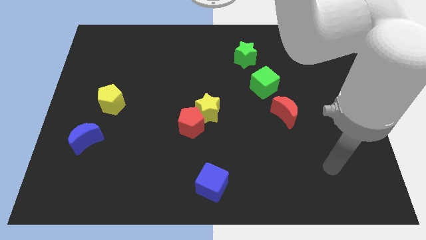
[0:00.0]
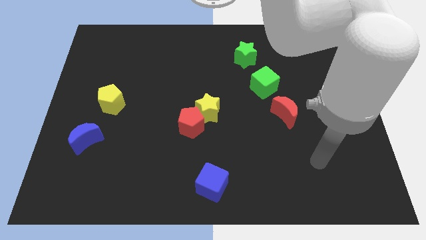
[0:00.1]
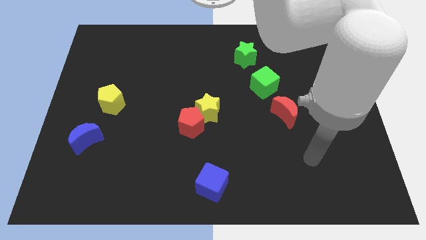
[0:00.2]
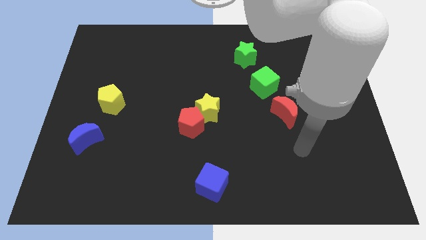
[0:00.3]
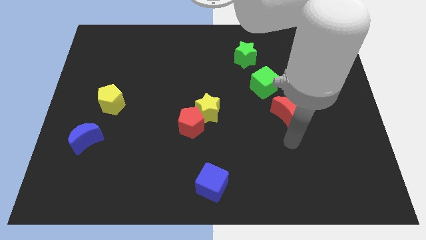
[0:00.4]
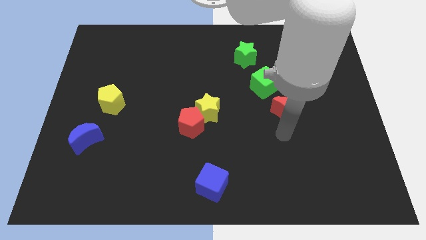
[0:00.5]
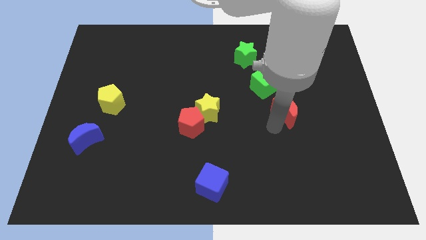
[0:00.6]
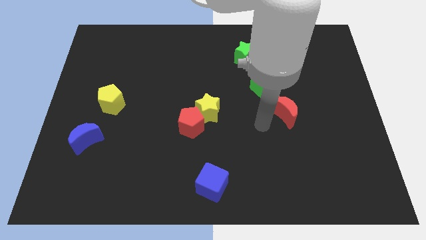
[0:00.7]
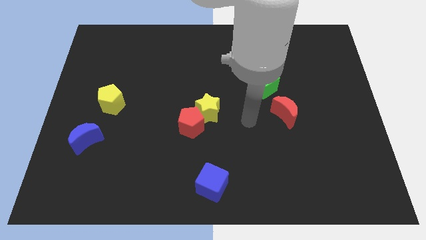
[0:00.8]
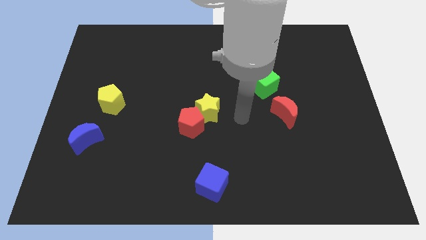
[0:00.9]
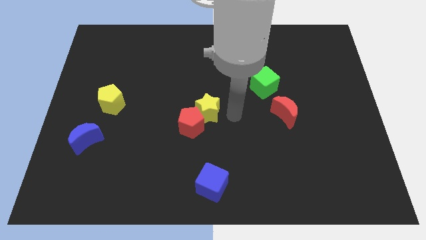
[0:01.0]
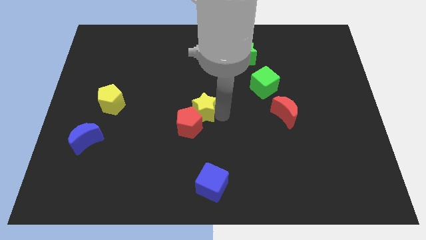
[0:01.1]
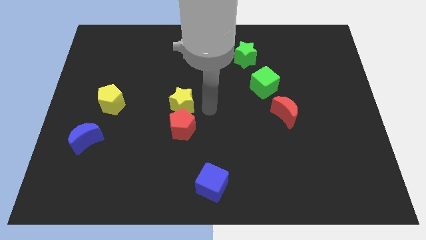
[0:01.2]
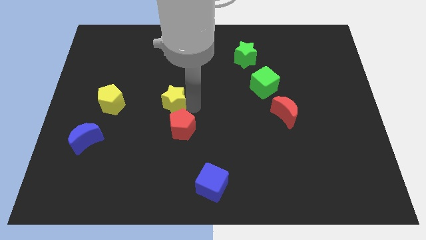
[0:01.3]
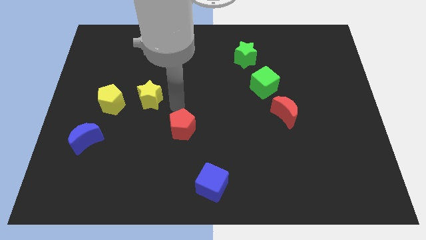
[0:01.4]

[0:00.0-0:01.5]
pull the red pentagon apart from the yellow star

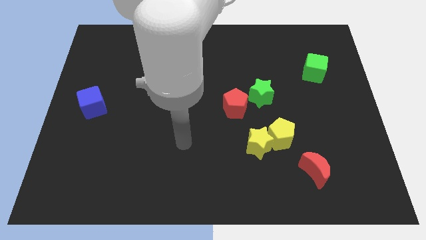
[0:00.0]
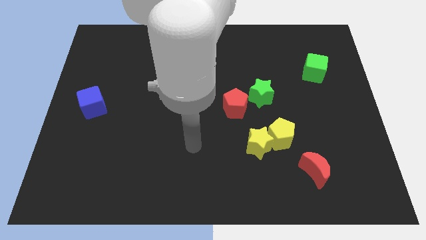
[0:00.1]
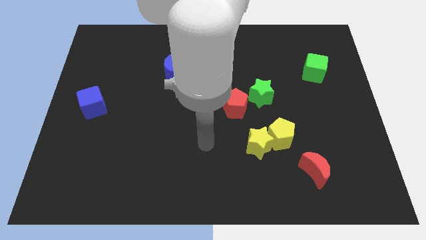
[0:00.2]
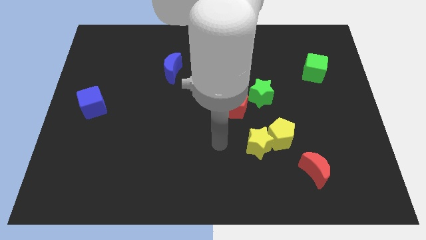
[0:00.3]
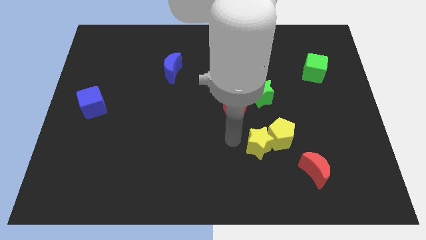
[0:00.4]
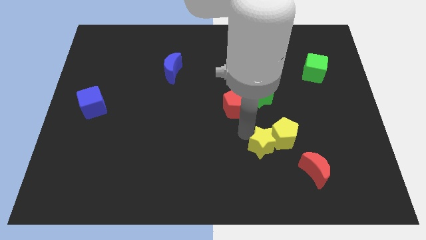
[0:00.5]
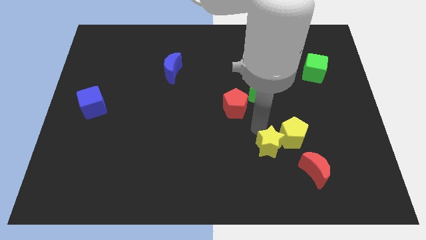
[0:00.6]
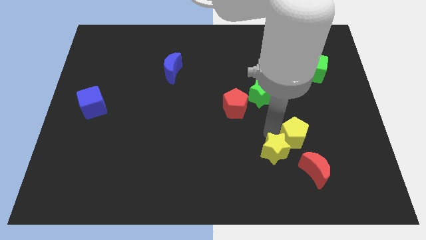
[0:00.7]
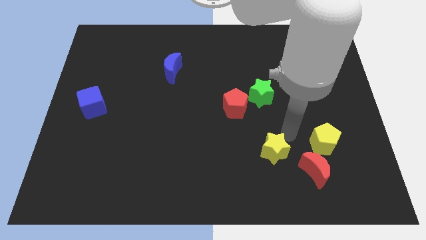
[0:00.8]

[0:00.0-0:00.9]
move the yellow star away from the yellow pentagon

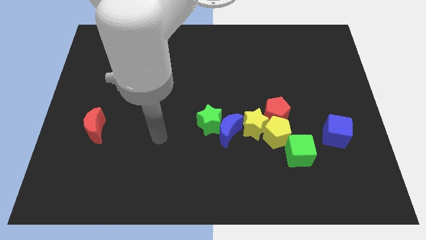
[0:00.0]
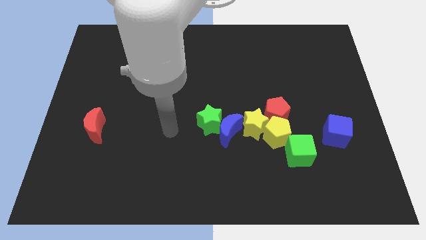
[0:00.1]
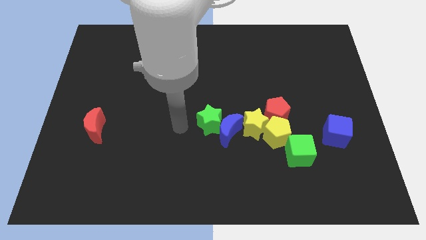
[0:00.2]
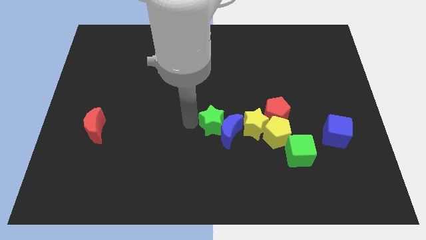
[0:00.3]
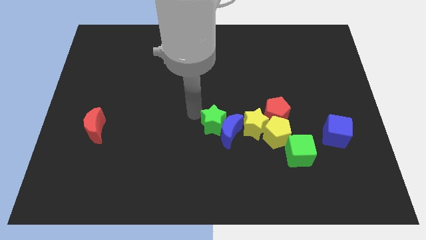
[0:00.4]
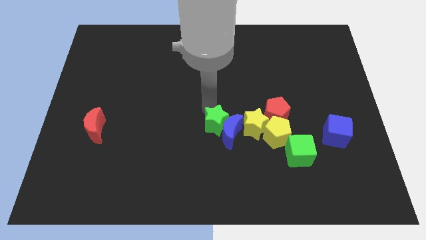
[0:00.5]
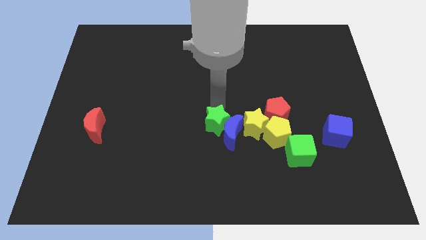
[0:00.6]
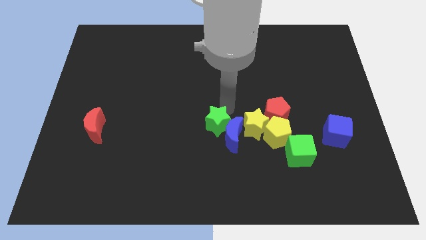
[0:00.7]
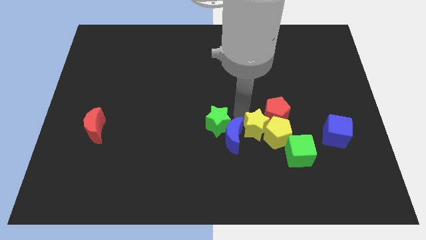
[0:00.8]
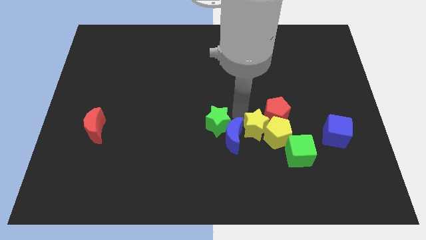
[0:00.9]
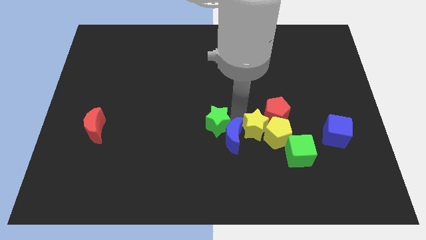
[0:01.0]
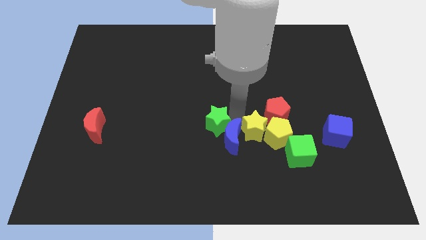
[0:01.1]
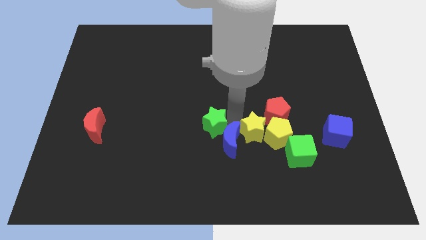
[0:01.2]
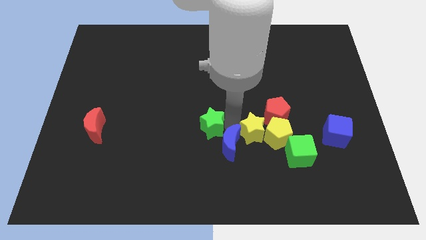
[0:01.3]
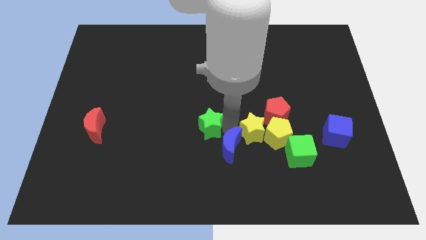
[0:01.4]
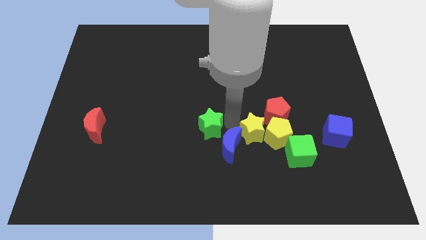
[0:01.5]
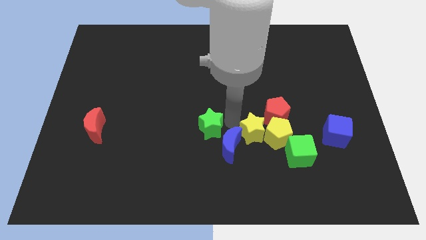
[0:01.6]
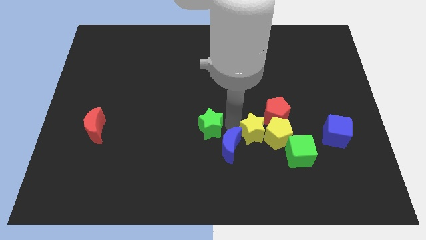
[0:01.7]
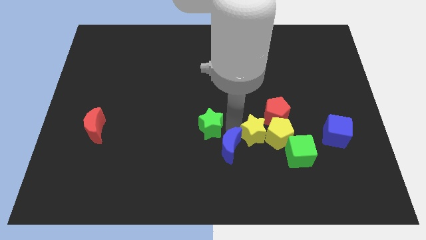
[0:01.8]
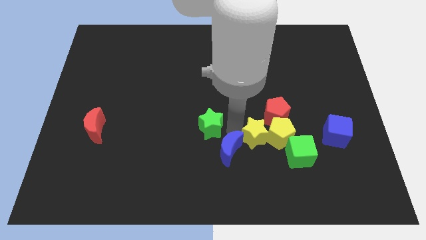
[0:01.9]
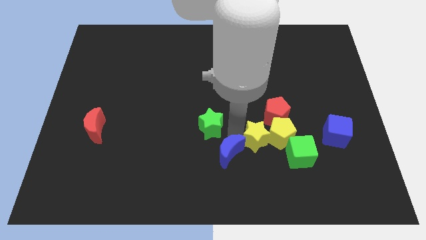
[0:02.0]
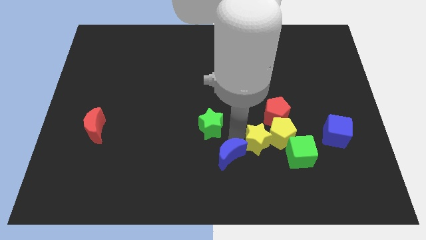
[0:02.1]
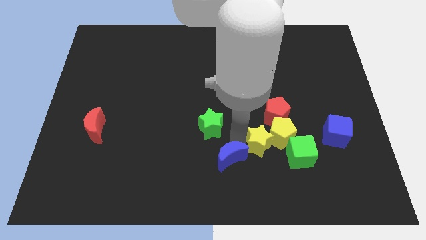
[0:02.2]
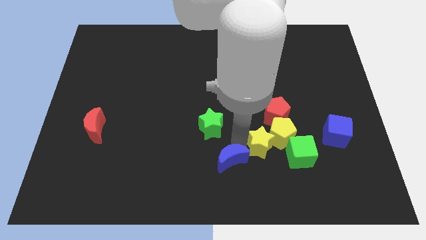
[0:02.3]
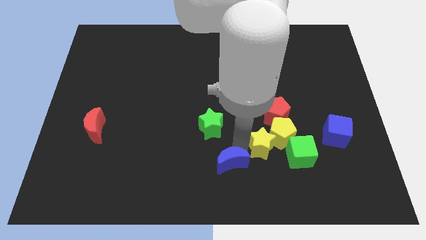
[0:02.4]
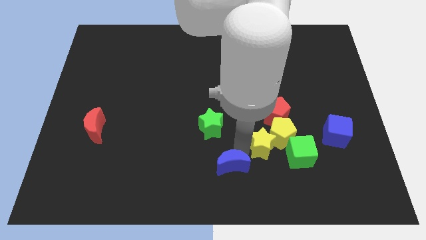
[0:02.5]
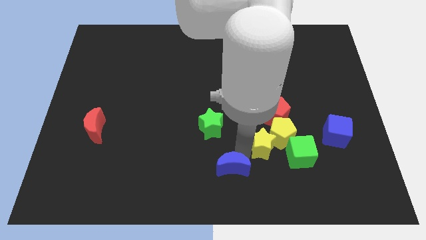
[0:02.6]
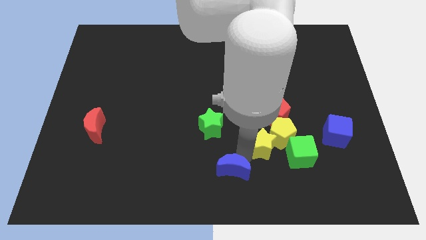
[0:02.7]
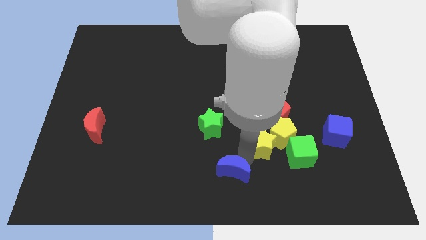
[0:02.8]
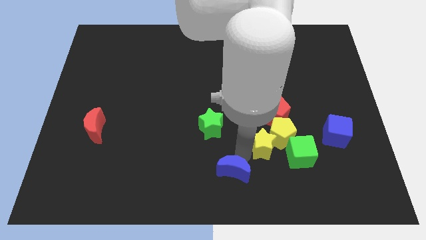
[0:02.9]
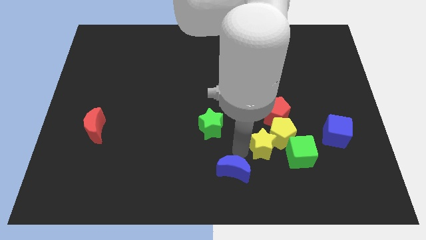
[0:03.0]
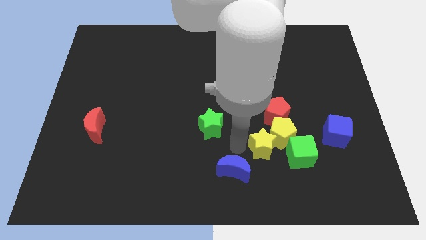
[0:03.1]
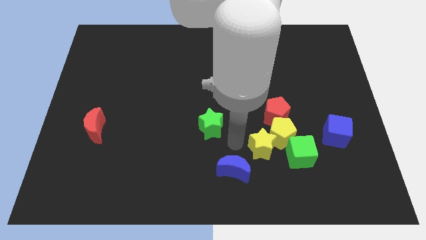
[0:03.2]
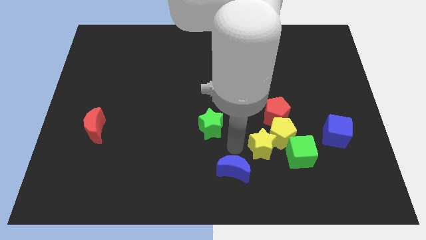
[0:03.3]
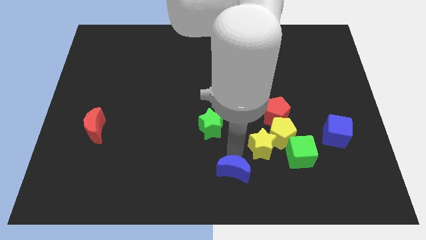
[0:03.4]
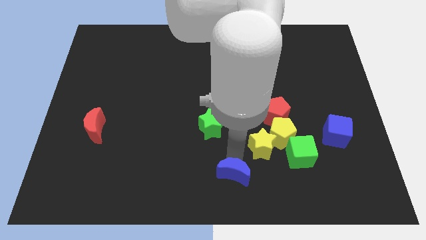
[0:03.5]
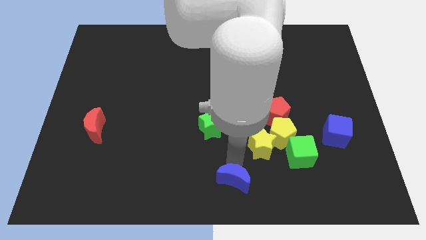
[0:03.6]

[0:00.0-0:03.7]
move the blue moon away from the green star and yellow star

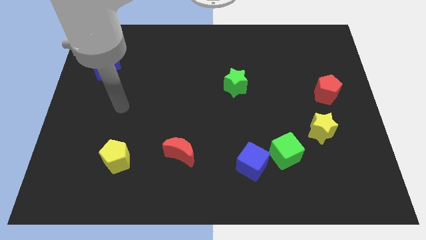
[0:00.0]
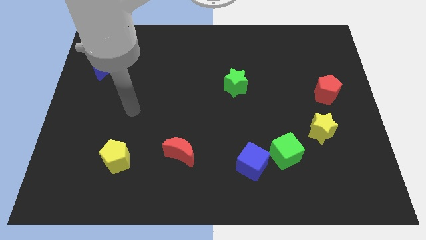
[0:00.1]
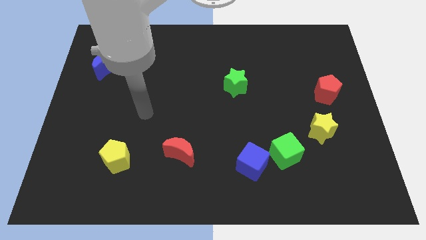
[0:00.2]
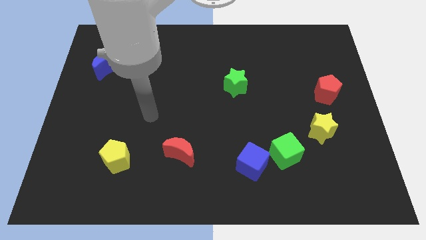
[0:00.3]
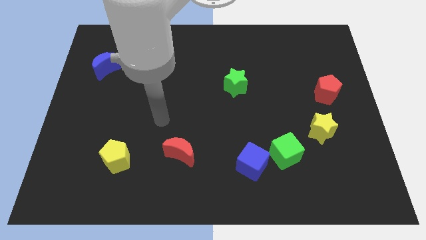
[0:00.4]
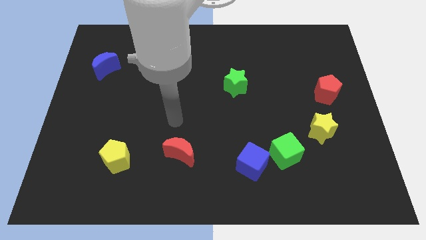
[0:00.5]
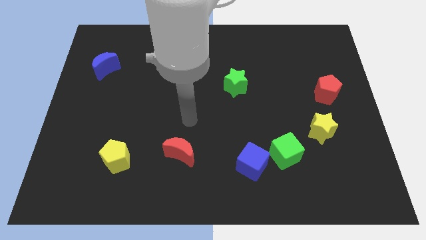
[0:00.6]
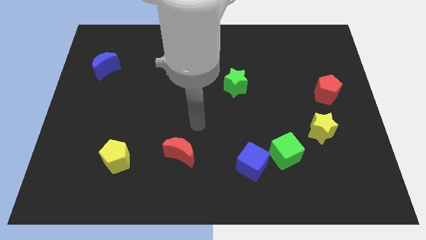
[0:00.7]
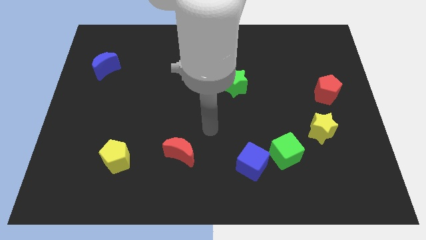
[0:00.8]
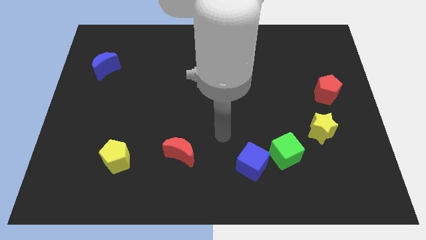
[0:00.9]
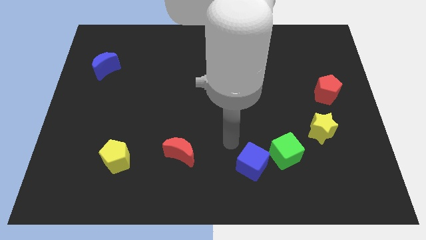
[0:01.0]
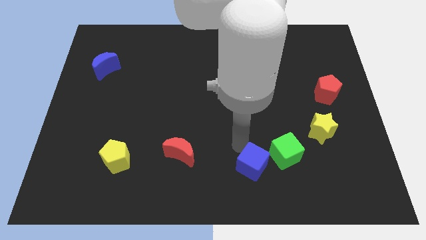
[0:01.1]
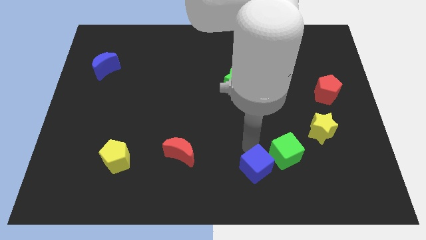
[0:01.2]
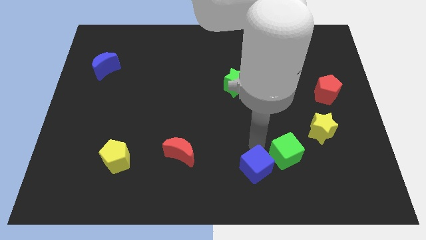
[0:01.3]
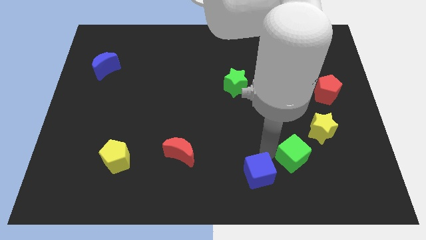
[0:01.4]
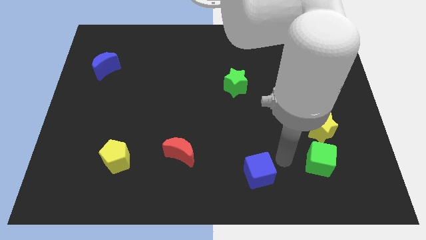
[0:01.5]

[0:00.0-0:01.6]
separate the blue cube from the green cube

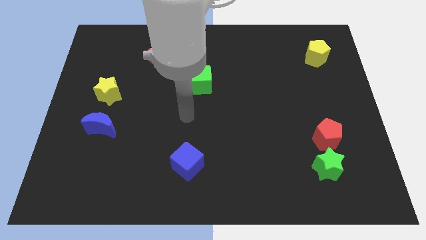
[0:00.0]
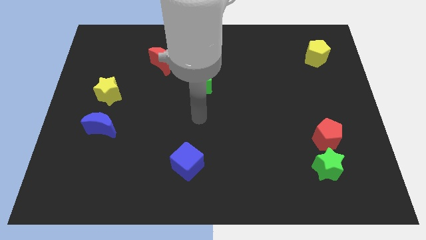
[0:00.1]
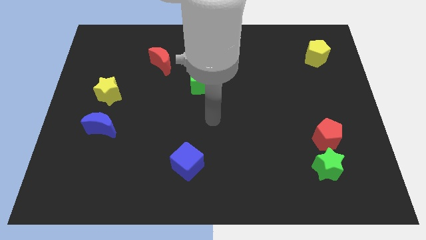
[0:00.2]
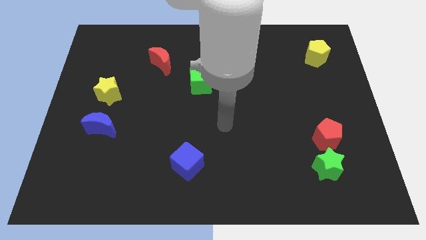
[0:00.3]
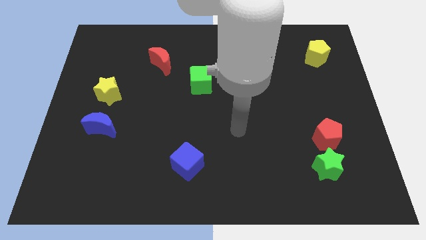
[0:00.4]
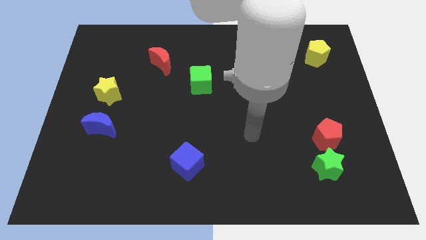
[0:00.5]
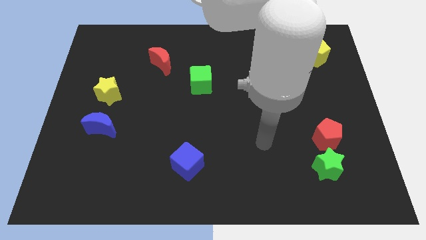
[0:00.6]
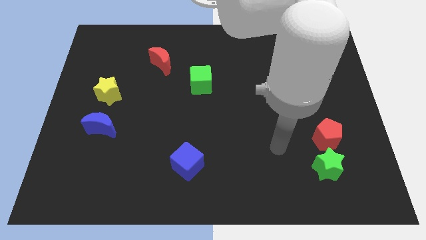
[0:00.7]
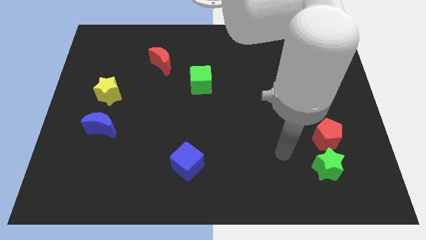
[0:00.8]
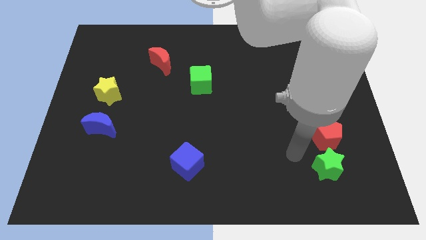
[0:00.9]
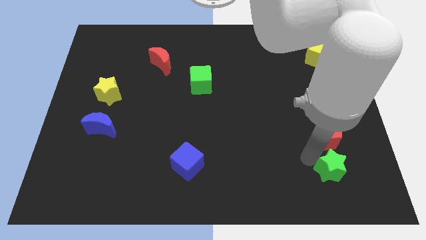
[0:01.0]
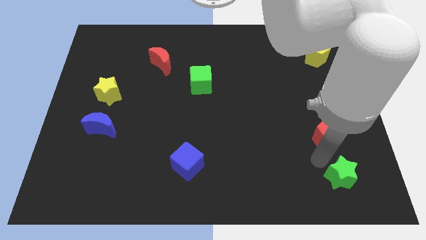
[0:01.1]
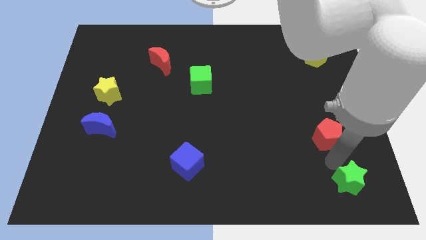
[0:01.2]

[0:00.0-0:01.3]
separate the red pentagon from the green star

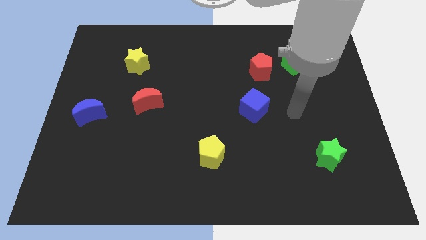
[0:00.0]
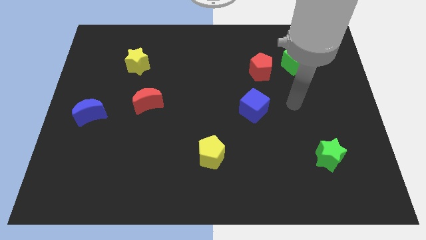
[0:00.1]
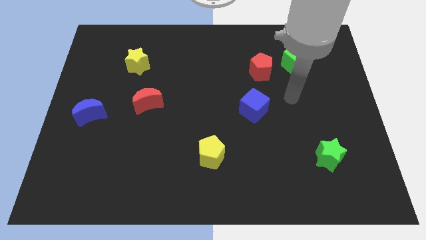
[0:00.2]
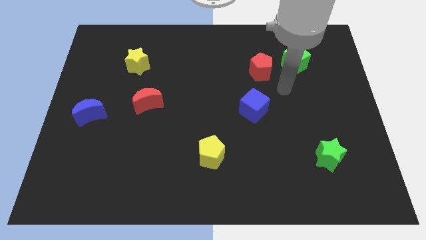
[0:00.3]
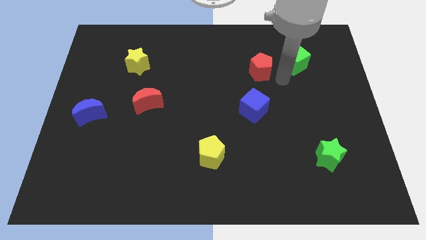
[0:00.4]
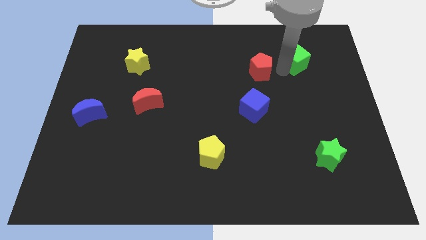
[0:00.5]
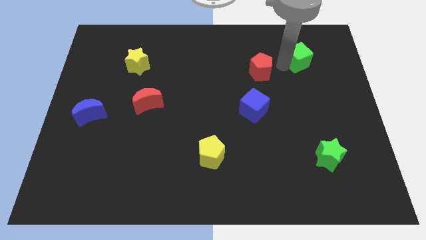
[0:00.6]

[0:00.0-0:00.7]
pull the red pentagon apart from the green cube
